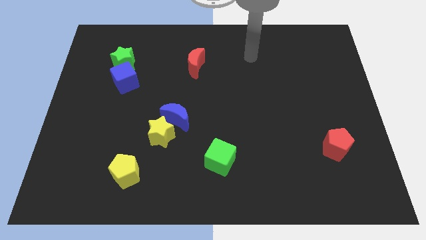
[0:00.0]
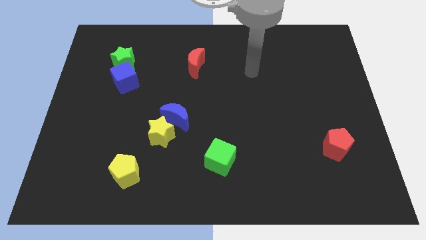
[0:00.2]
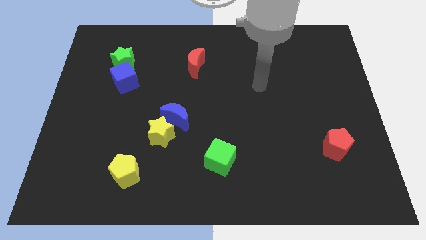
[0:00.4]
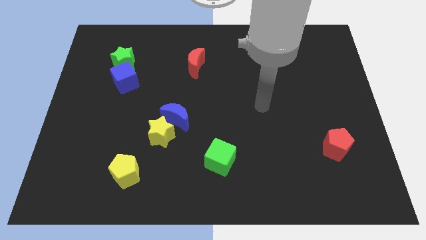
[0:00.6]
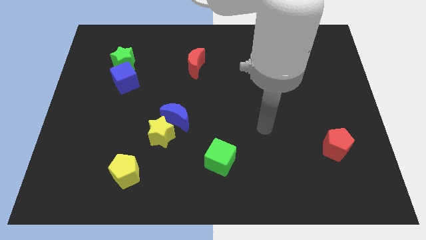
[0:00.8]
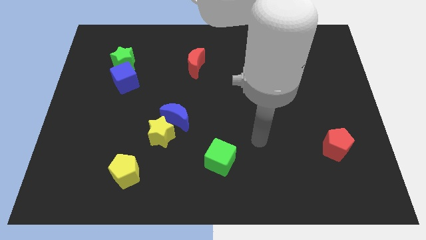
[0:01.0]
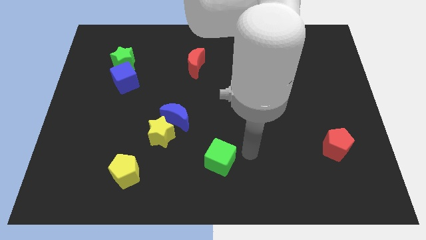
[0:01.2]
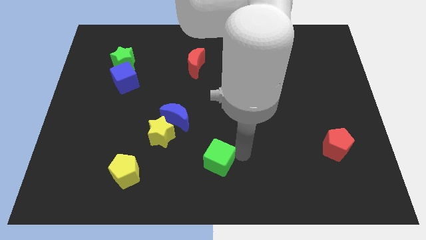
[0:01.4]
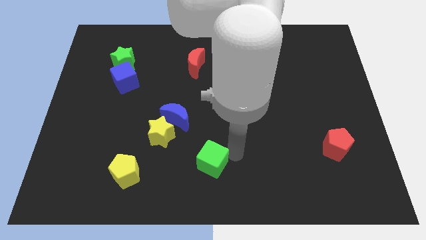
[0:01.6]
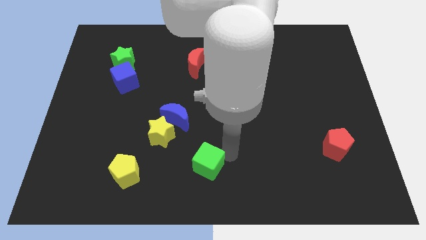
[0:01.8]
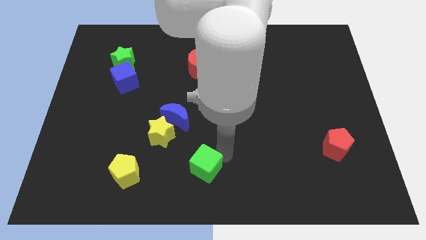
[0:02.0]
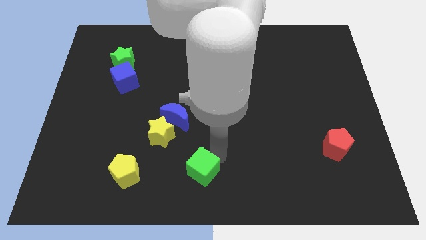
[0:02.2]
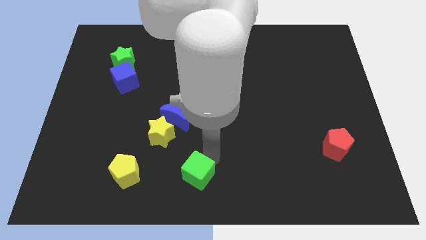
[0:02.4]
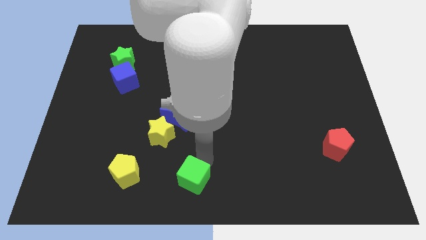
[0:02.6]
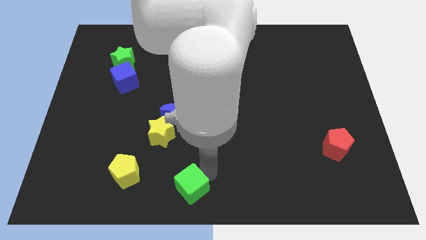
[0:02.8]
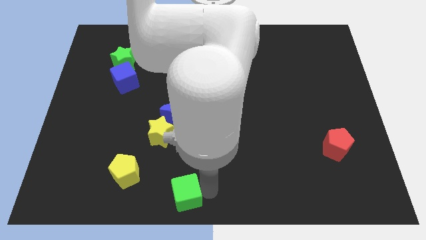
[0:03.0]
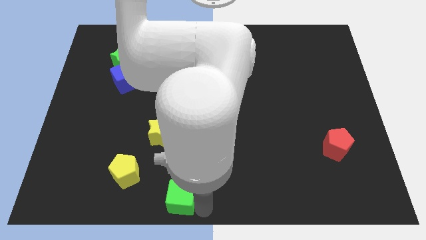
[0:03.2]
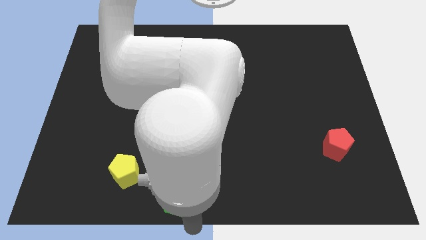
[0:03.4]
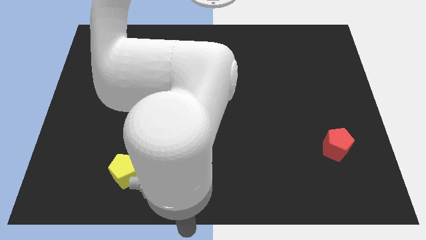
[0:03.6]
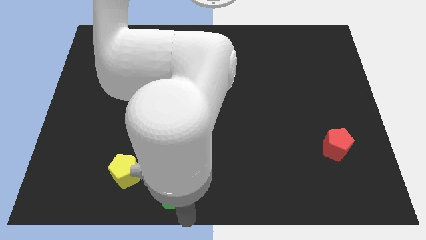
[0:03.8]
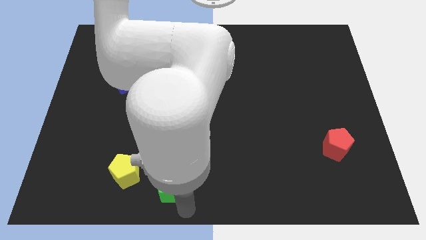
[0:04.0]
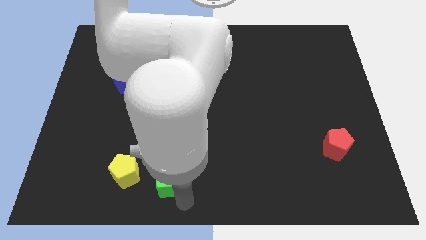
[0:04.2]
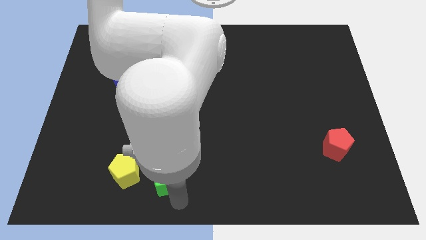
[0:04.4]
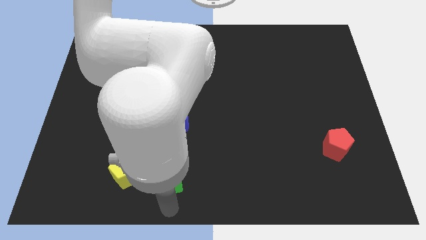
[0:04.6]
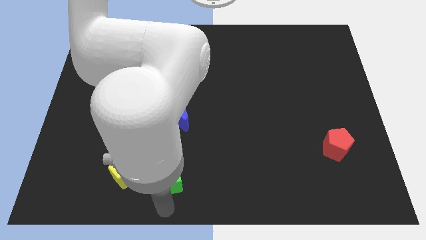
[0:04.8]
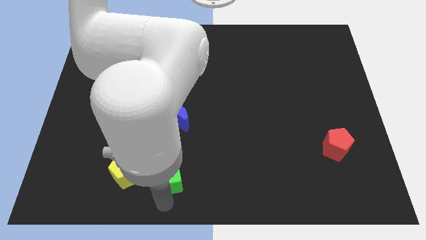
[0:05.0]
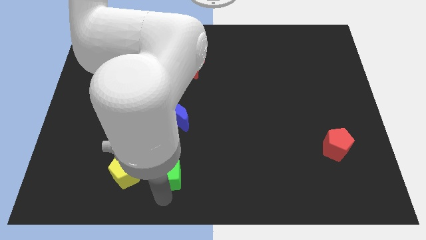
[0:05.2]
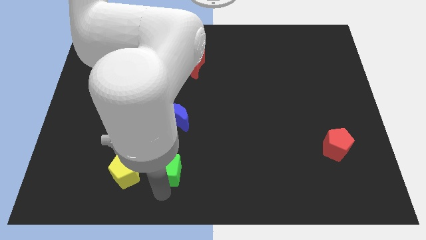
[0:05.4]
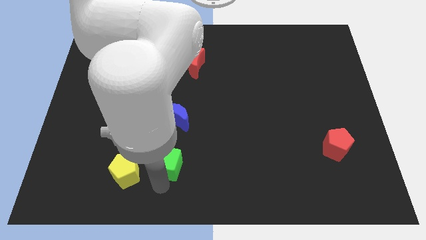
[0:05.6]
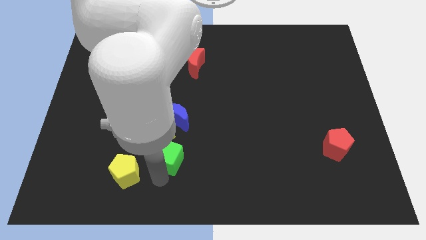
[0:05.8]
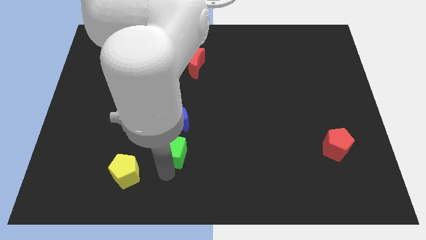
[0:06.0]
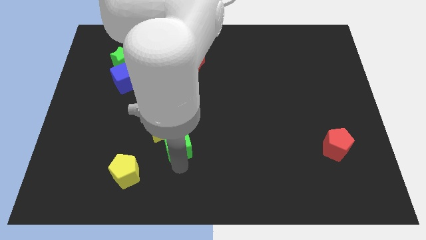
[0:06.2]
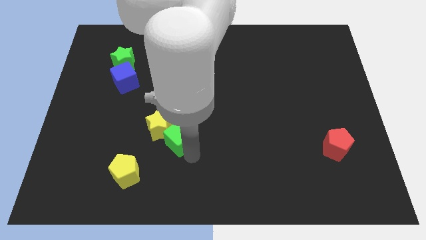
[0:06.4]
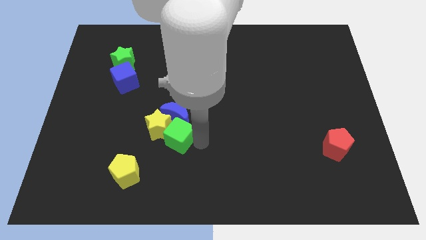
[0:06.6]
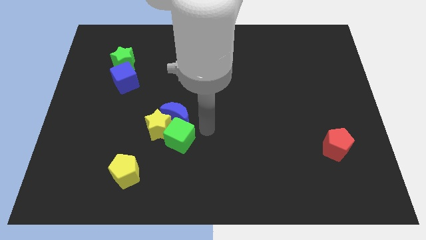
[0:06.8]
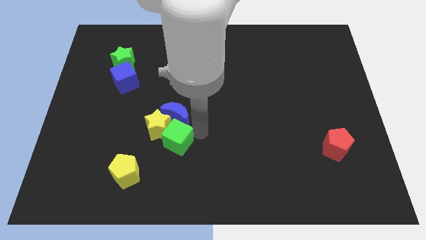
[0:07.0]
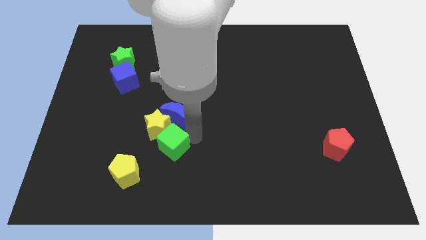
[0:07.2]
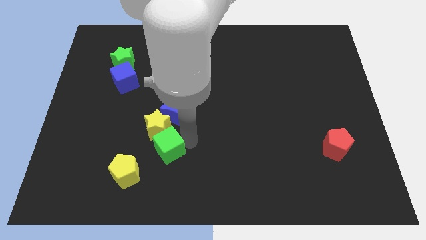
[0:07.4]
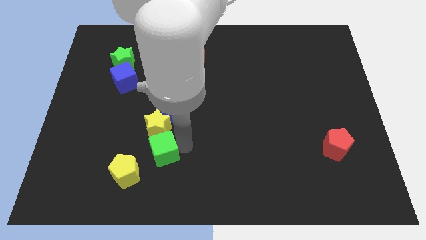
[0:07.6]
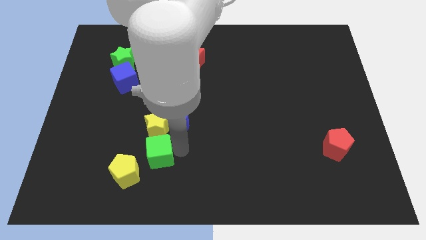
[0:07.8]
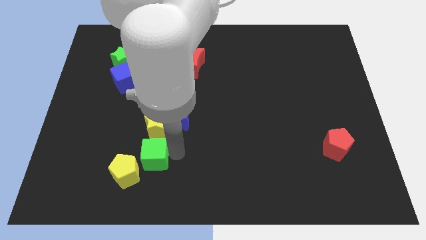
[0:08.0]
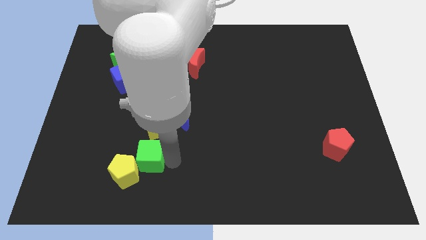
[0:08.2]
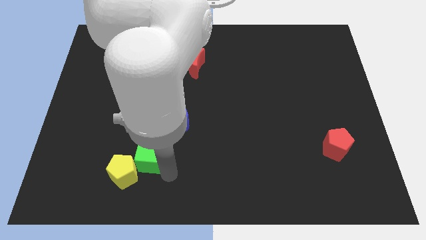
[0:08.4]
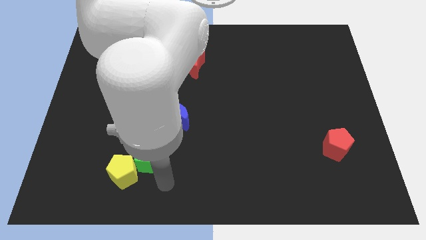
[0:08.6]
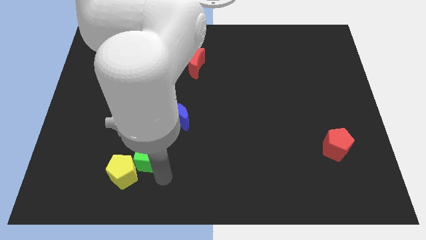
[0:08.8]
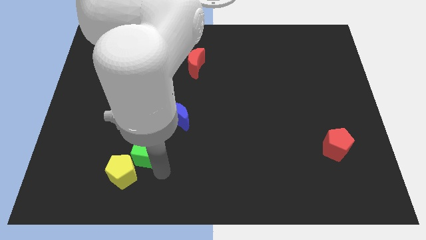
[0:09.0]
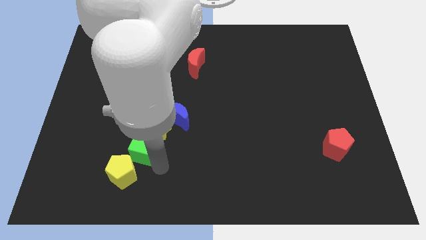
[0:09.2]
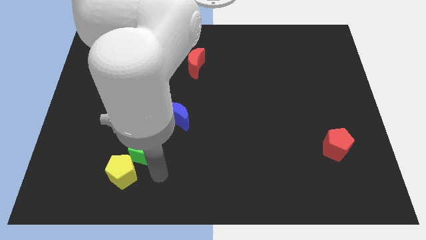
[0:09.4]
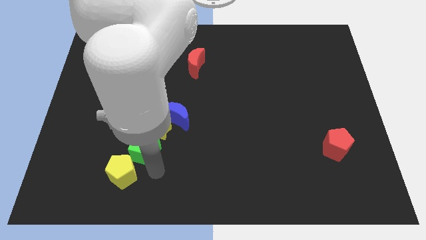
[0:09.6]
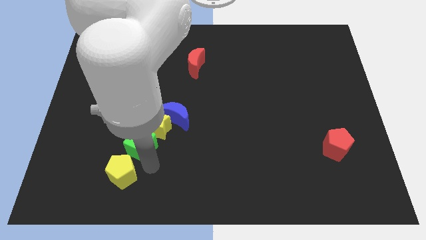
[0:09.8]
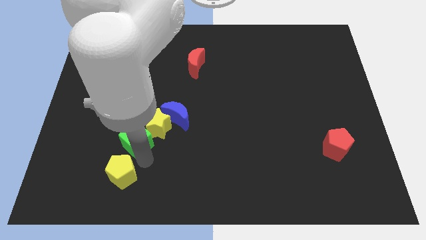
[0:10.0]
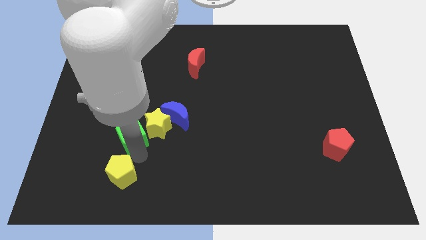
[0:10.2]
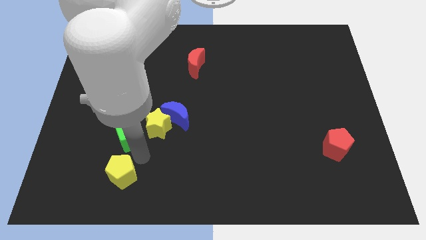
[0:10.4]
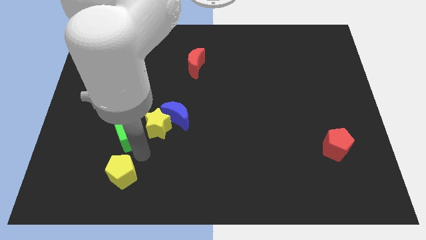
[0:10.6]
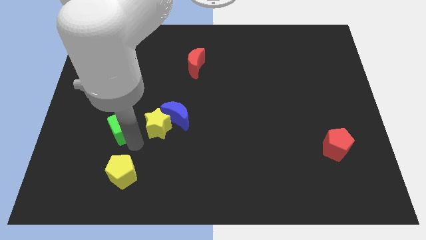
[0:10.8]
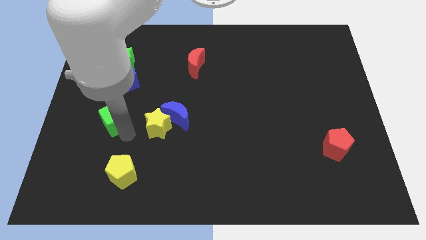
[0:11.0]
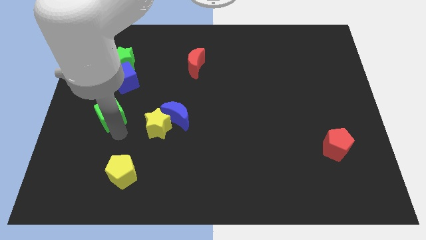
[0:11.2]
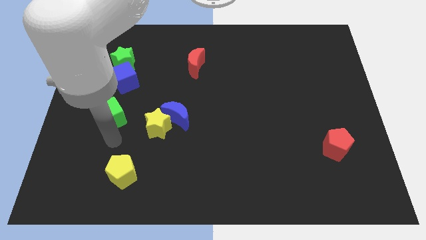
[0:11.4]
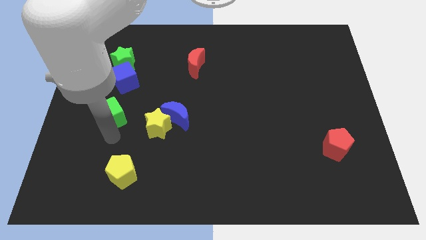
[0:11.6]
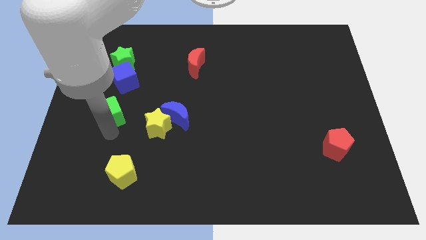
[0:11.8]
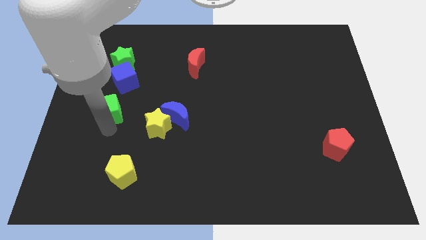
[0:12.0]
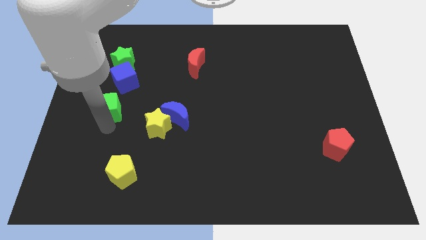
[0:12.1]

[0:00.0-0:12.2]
move the green cube to the bottom left side of the blue cube

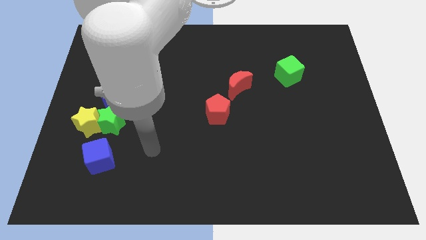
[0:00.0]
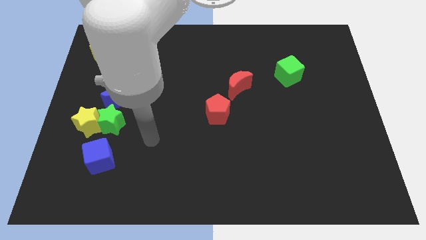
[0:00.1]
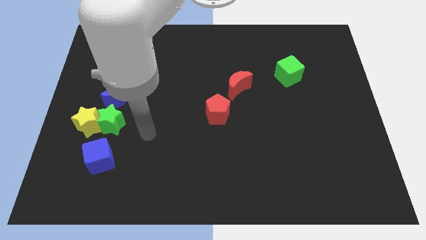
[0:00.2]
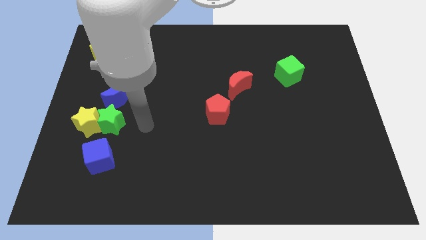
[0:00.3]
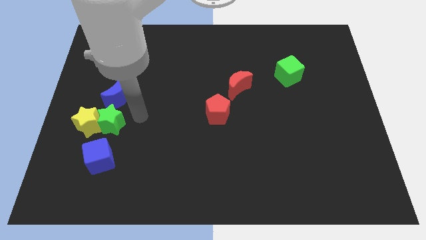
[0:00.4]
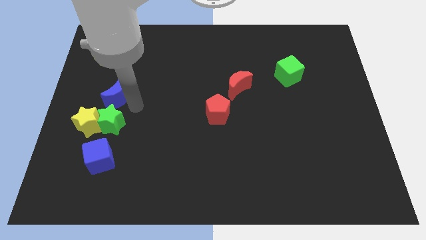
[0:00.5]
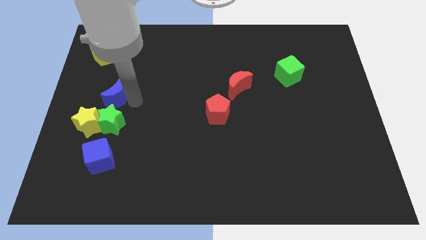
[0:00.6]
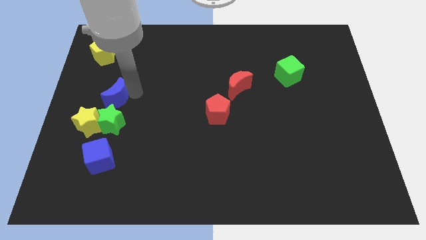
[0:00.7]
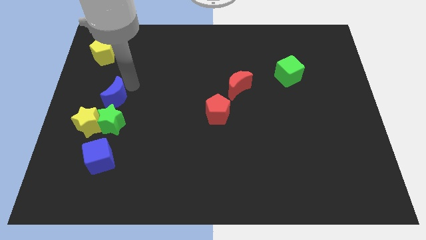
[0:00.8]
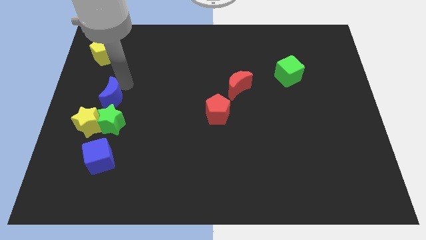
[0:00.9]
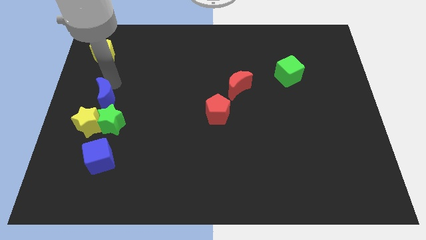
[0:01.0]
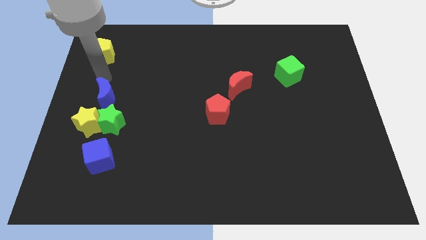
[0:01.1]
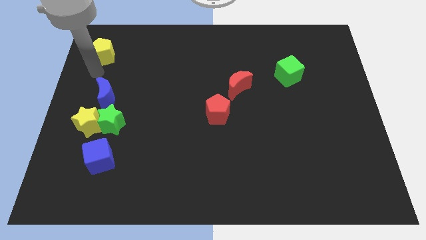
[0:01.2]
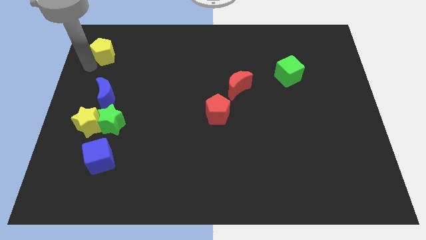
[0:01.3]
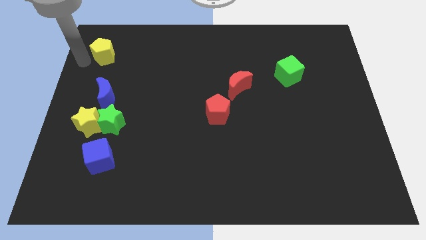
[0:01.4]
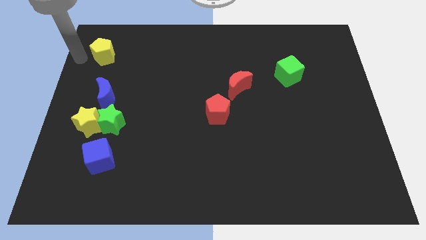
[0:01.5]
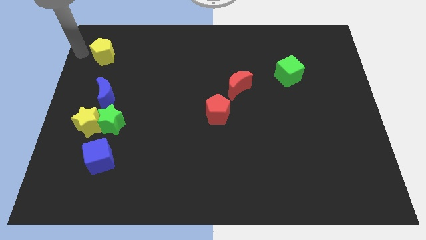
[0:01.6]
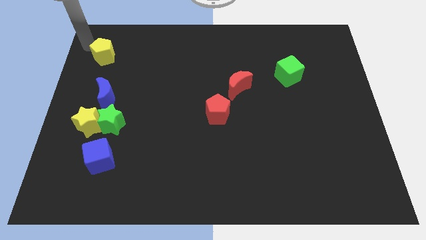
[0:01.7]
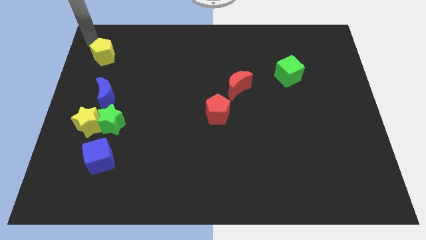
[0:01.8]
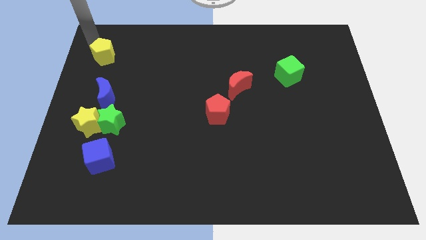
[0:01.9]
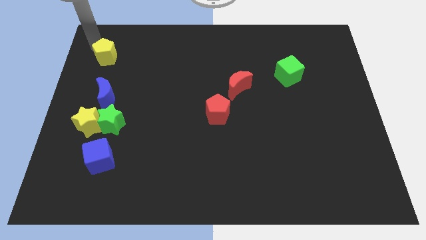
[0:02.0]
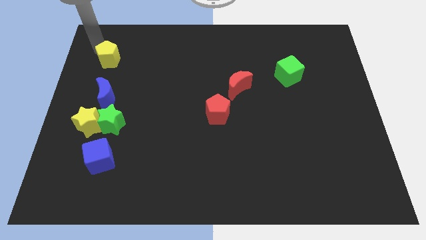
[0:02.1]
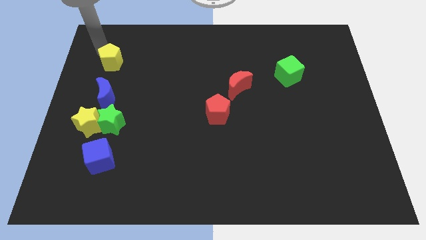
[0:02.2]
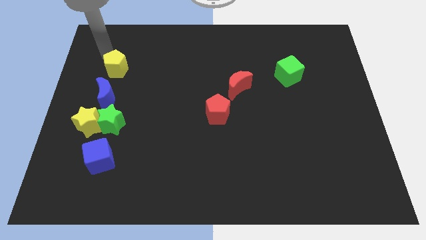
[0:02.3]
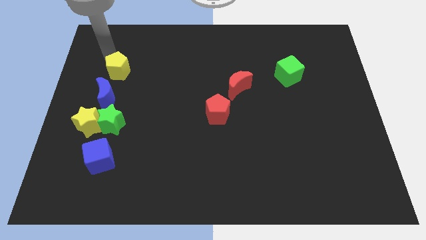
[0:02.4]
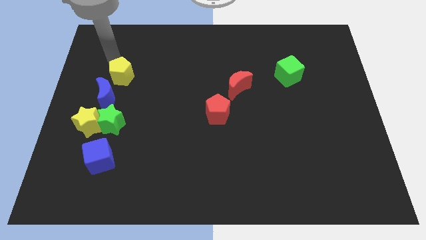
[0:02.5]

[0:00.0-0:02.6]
move the yellow pentagon above the green star
